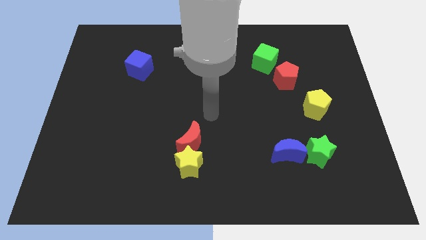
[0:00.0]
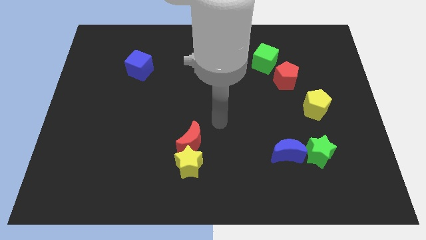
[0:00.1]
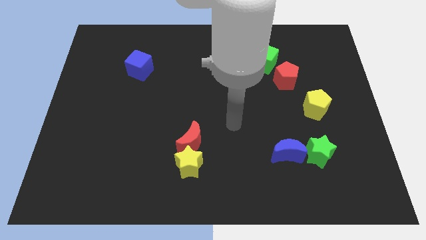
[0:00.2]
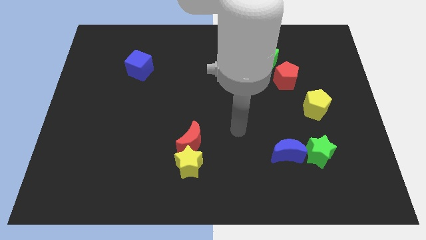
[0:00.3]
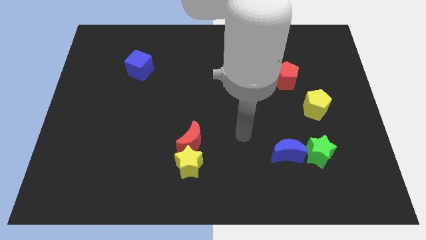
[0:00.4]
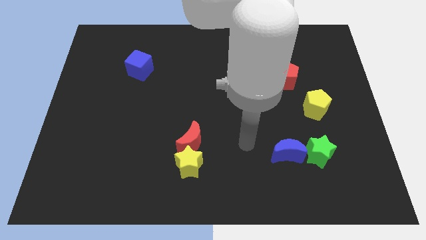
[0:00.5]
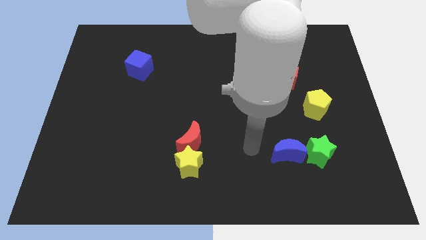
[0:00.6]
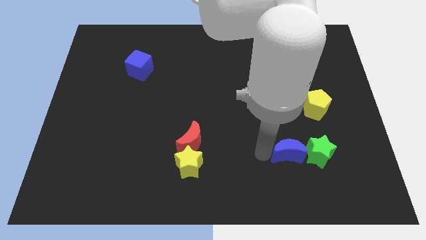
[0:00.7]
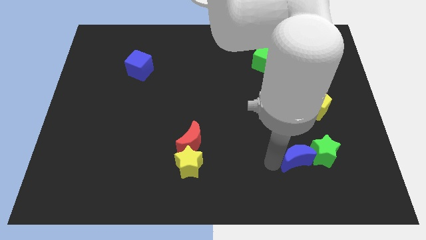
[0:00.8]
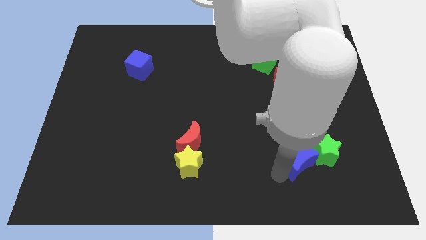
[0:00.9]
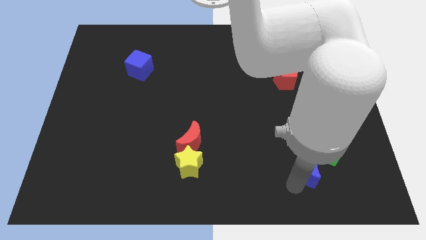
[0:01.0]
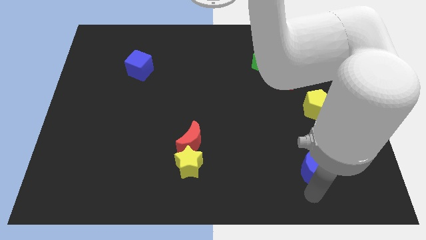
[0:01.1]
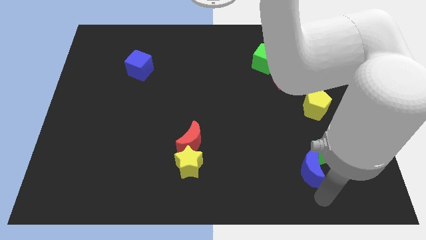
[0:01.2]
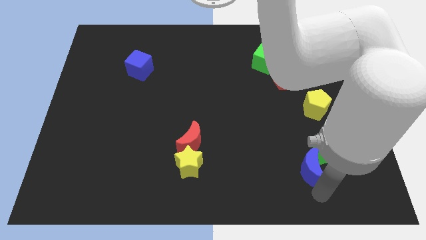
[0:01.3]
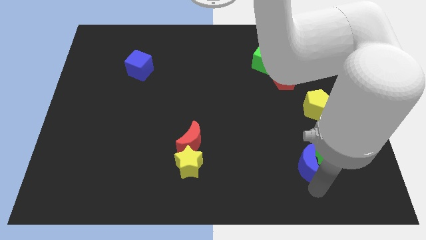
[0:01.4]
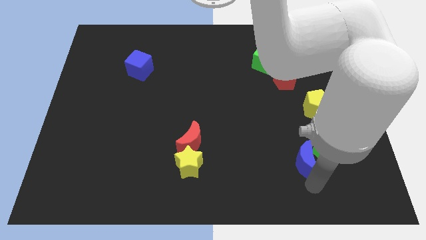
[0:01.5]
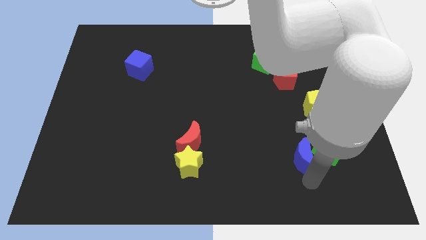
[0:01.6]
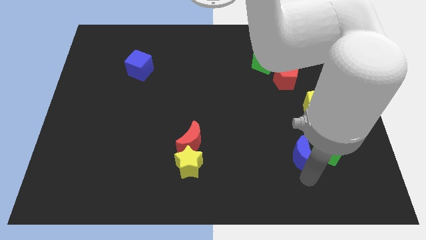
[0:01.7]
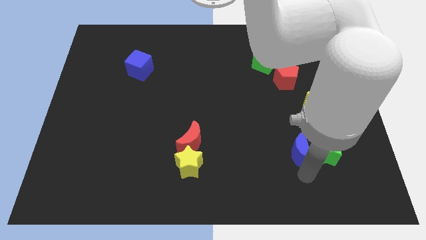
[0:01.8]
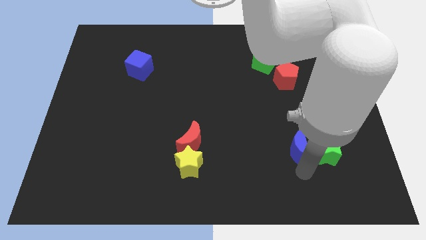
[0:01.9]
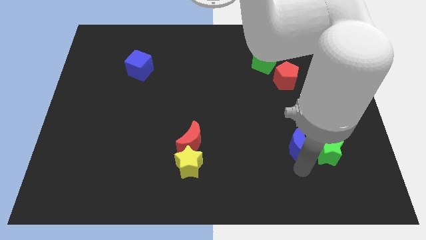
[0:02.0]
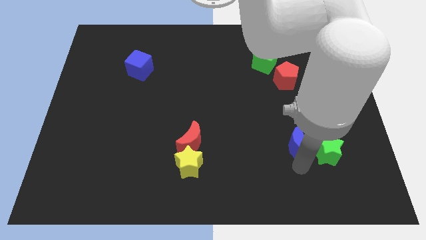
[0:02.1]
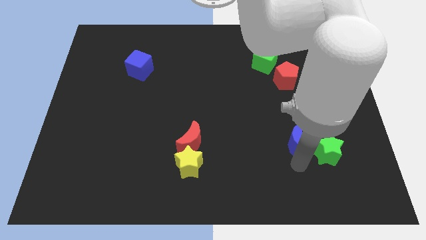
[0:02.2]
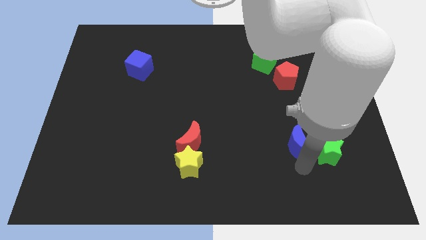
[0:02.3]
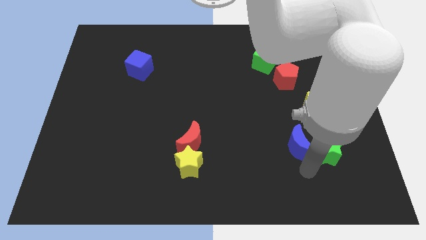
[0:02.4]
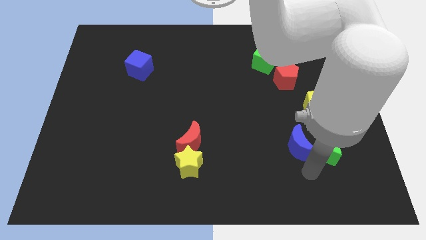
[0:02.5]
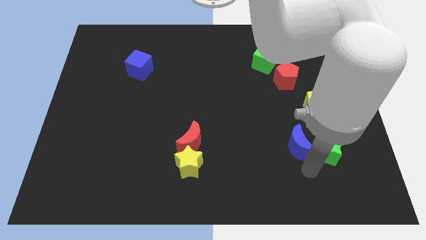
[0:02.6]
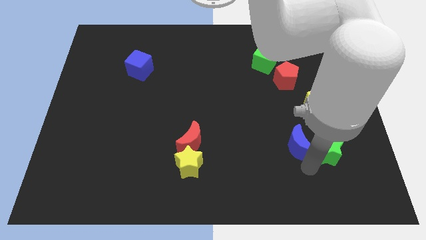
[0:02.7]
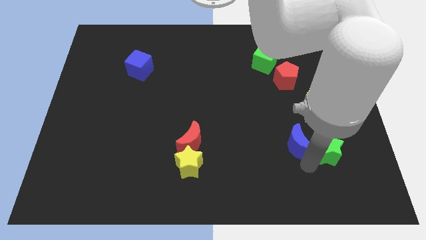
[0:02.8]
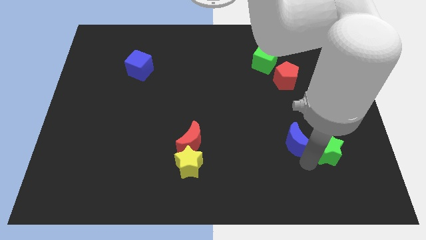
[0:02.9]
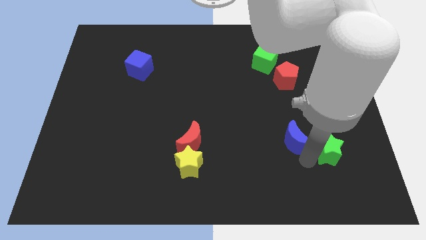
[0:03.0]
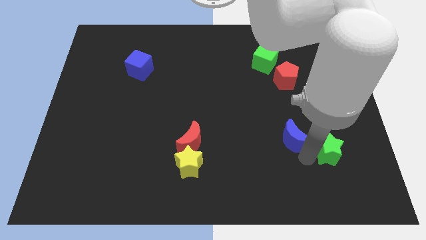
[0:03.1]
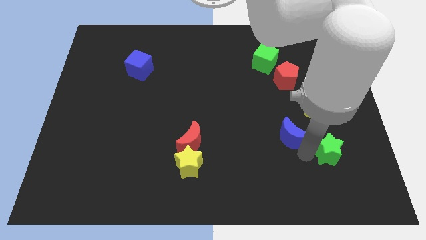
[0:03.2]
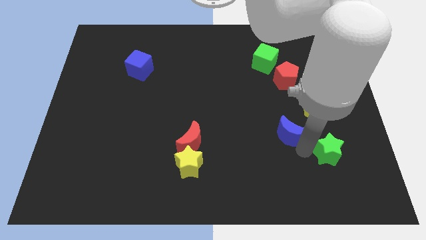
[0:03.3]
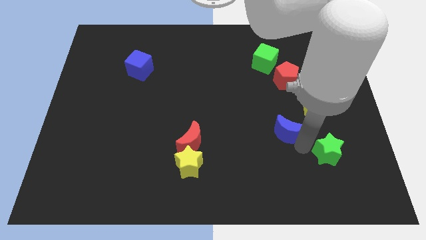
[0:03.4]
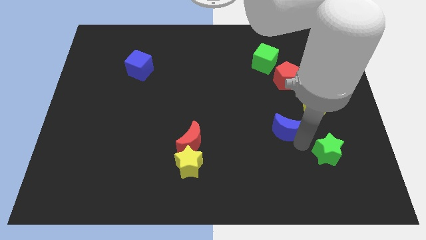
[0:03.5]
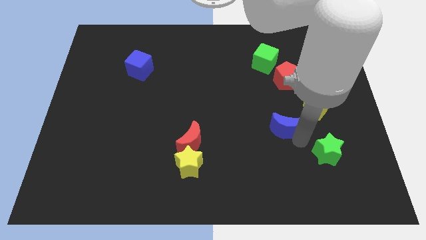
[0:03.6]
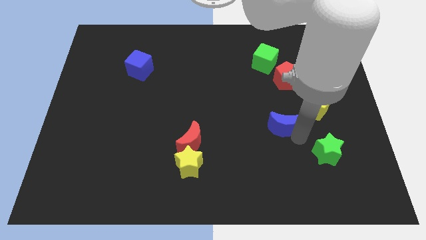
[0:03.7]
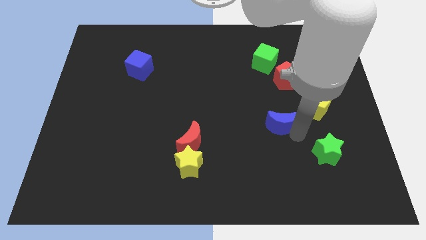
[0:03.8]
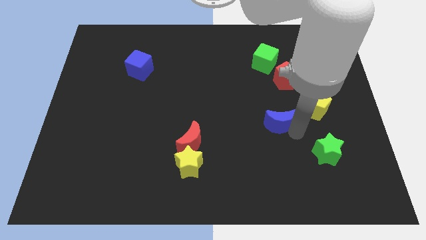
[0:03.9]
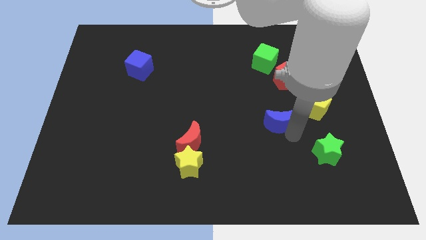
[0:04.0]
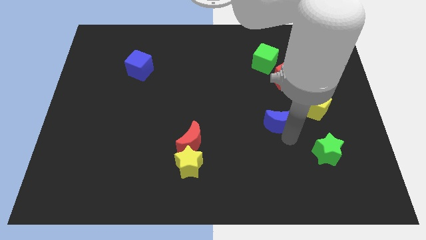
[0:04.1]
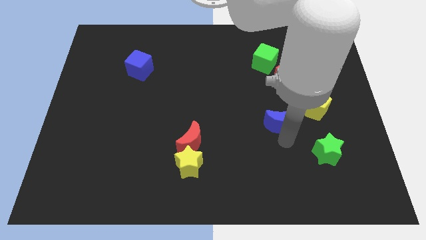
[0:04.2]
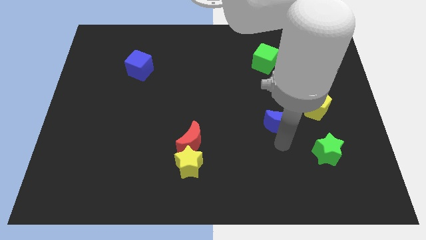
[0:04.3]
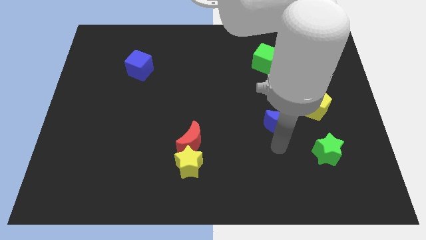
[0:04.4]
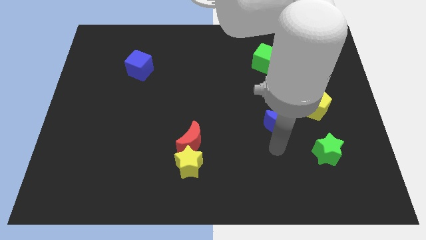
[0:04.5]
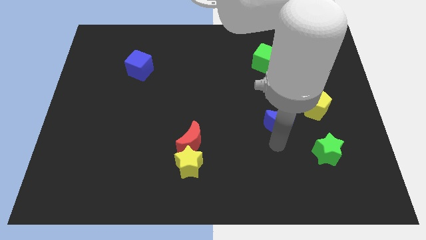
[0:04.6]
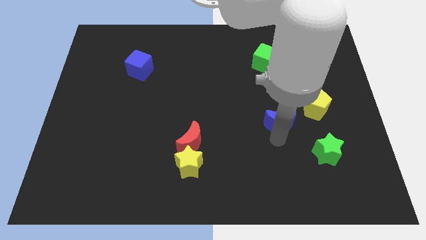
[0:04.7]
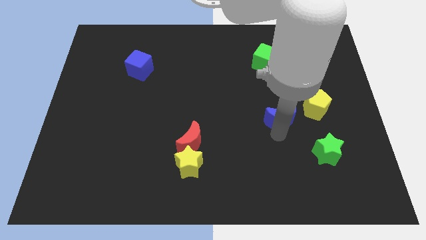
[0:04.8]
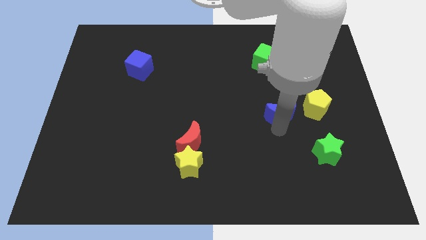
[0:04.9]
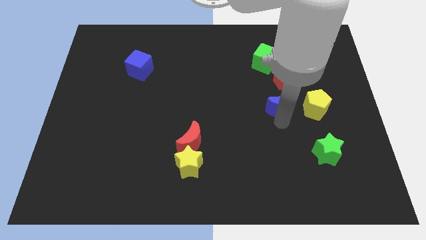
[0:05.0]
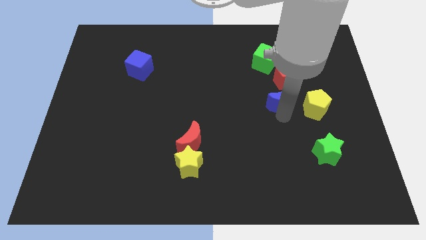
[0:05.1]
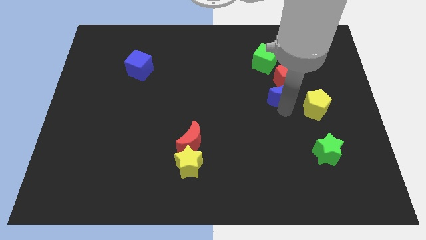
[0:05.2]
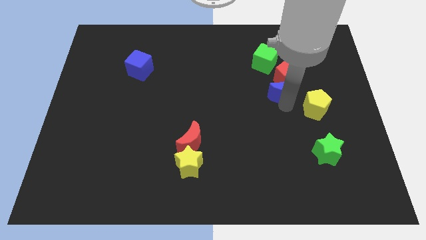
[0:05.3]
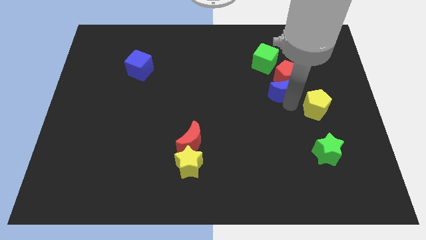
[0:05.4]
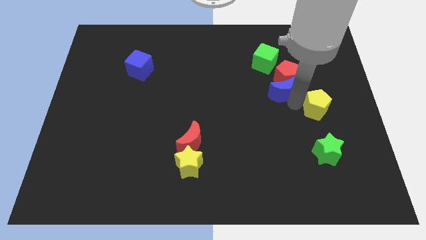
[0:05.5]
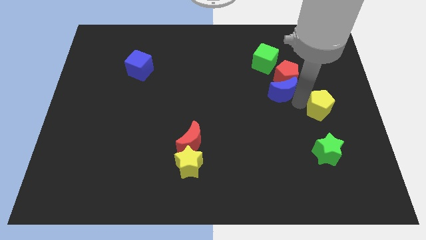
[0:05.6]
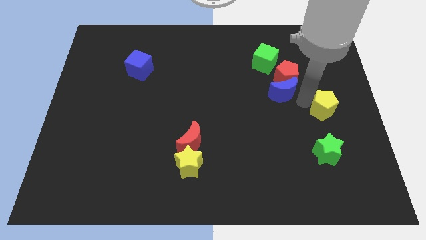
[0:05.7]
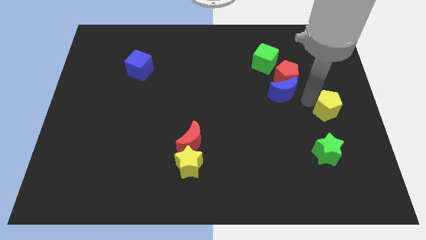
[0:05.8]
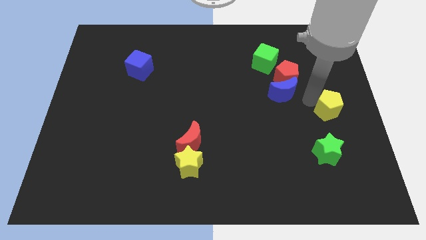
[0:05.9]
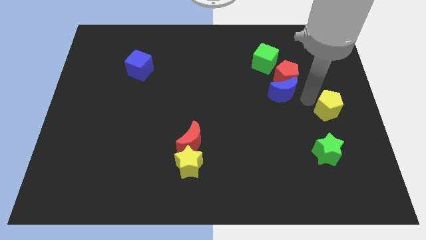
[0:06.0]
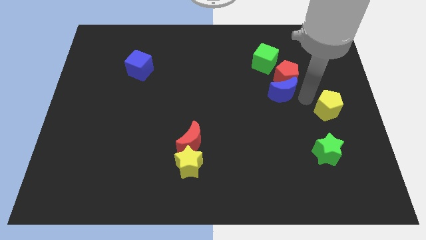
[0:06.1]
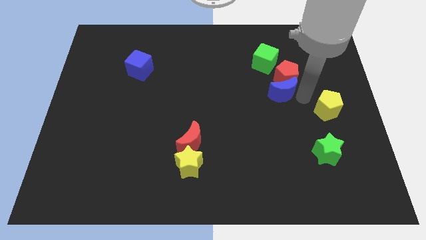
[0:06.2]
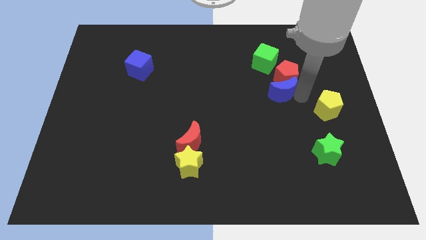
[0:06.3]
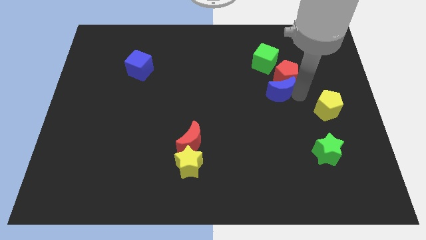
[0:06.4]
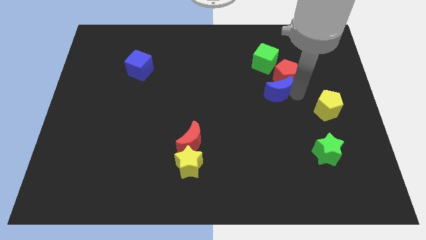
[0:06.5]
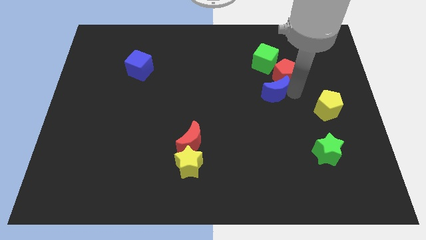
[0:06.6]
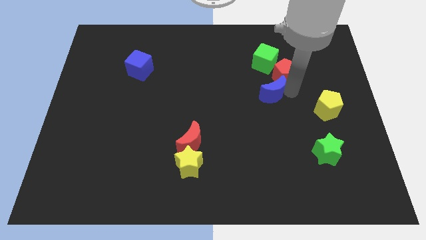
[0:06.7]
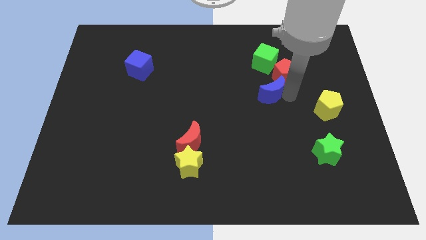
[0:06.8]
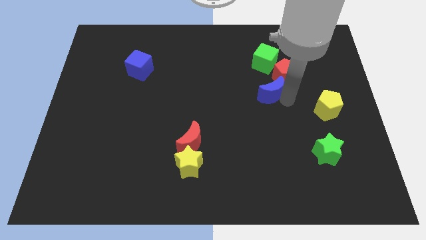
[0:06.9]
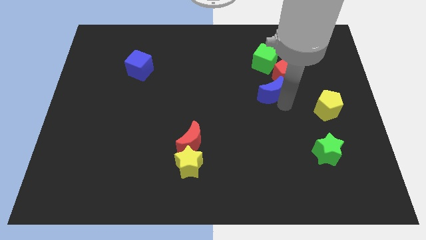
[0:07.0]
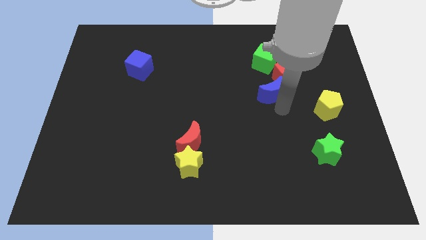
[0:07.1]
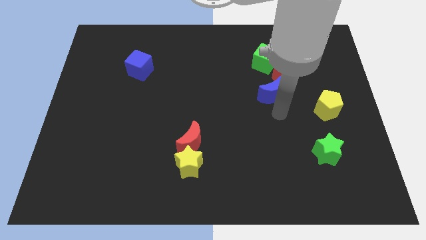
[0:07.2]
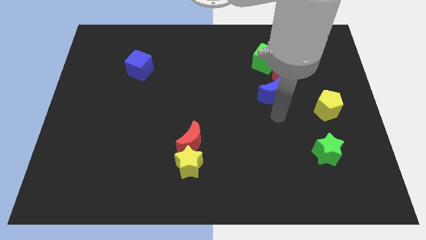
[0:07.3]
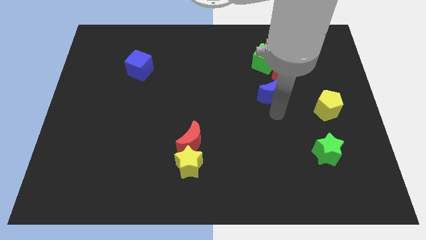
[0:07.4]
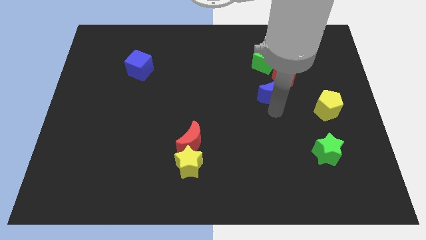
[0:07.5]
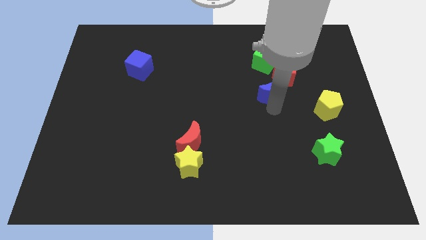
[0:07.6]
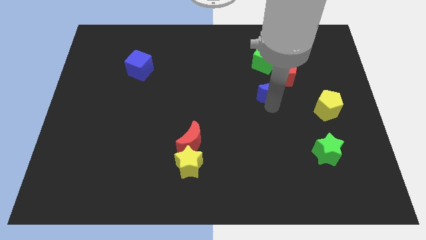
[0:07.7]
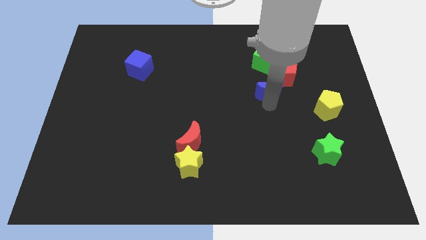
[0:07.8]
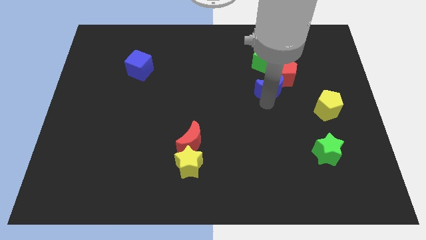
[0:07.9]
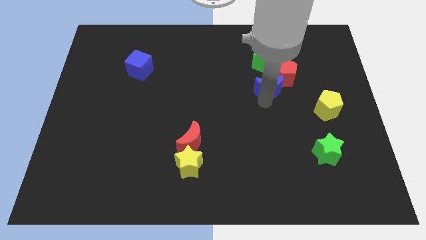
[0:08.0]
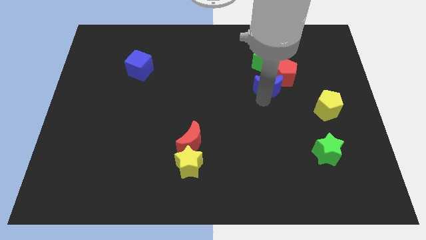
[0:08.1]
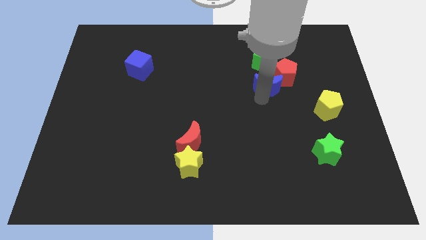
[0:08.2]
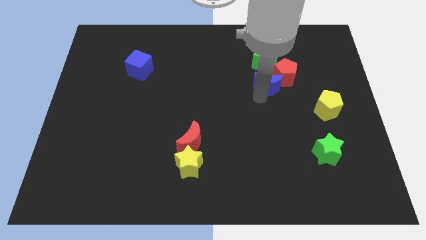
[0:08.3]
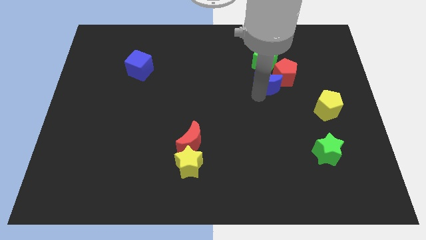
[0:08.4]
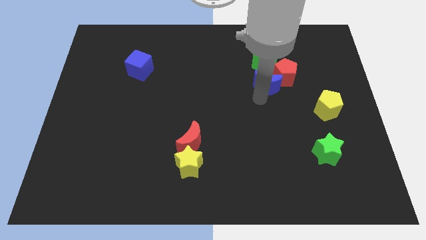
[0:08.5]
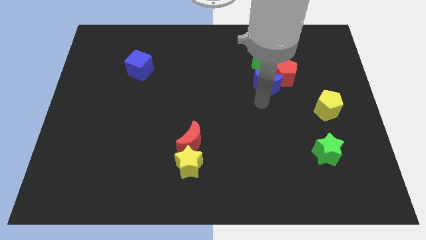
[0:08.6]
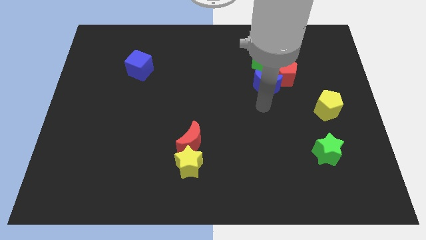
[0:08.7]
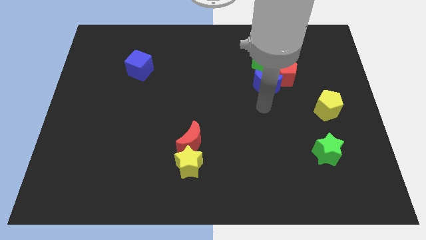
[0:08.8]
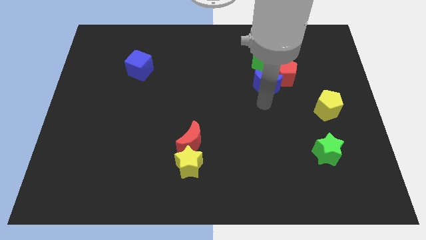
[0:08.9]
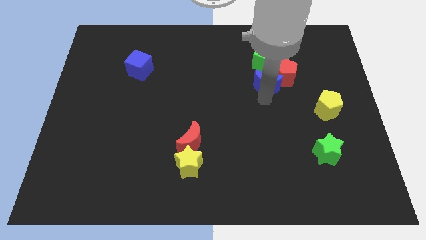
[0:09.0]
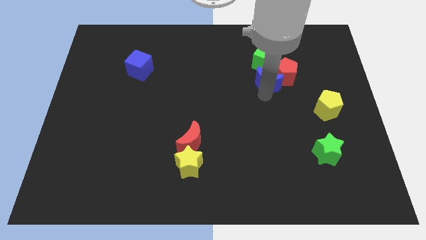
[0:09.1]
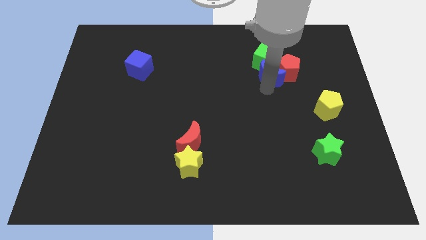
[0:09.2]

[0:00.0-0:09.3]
move the blue moon to the green cube
